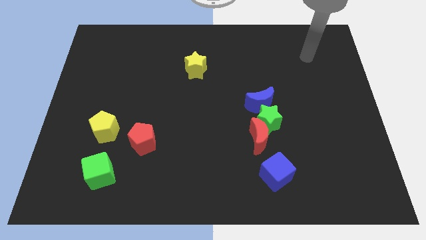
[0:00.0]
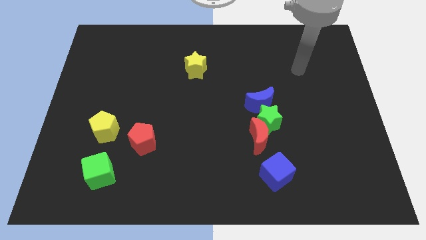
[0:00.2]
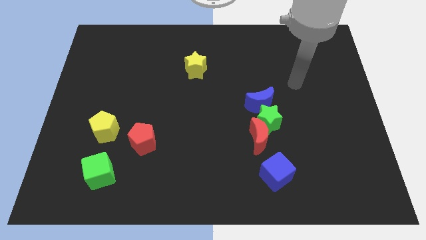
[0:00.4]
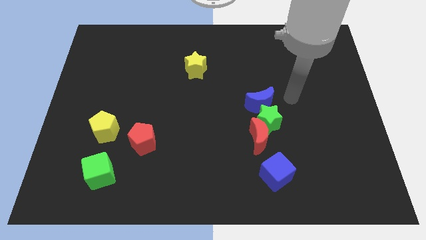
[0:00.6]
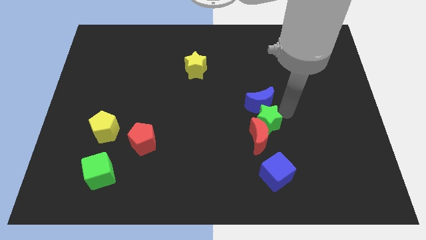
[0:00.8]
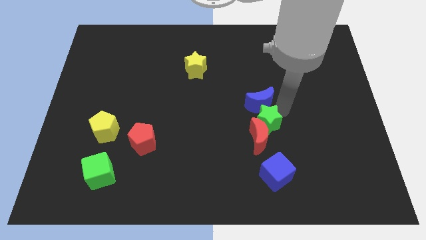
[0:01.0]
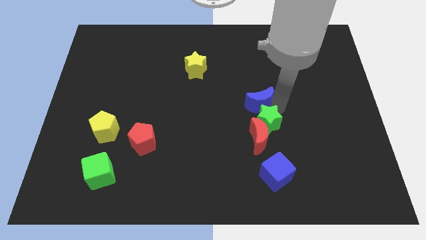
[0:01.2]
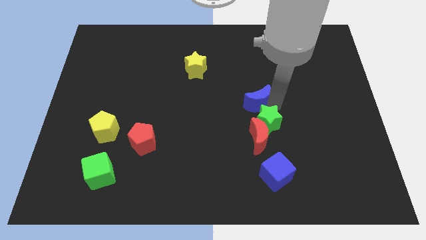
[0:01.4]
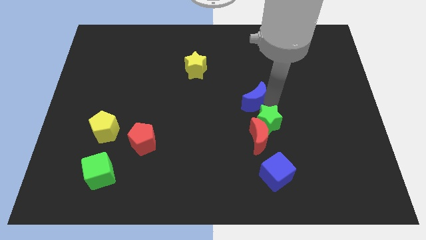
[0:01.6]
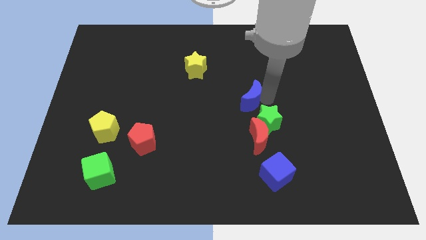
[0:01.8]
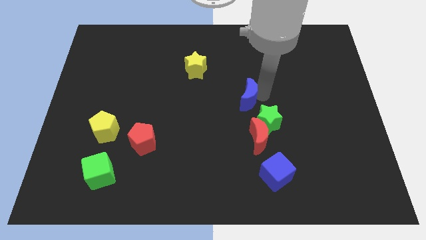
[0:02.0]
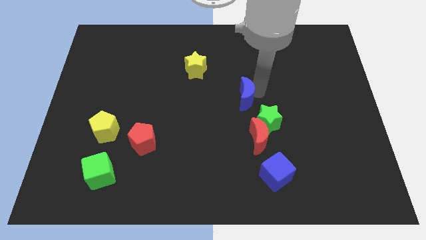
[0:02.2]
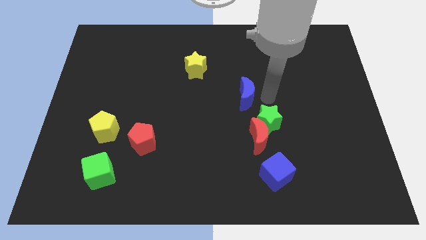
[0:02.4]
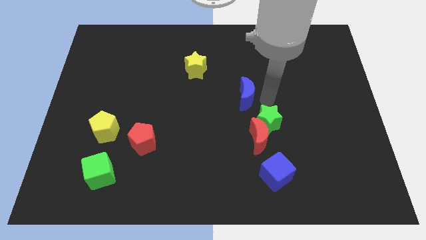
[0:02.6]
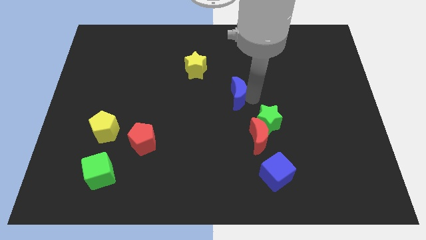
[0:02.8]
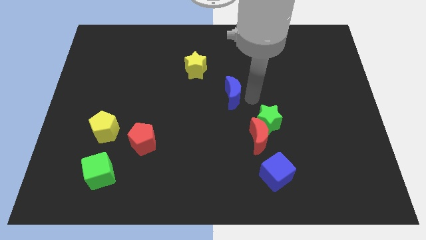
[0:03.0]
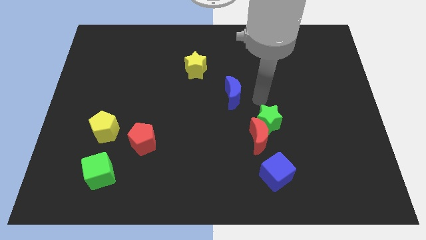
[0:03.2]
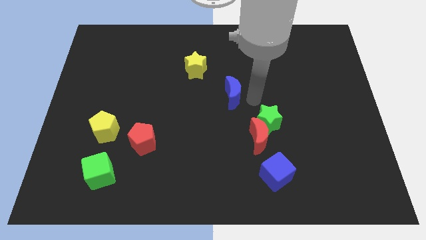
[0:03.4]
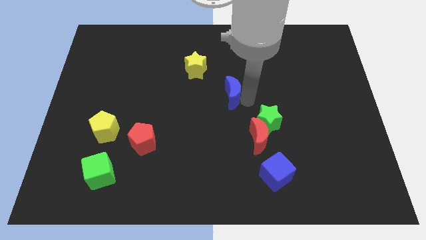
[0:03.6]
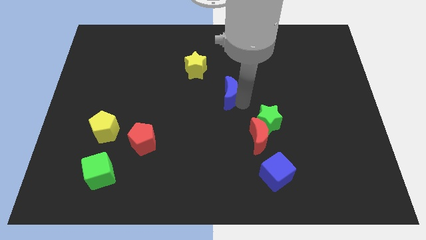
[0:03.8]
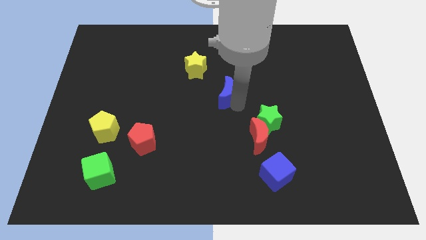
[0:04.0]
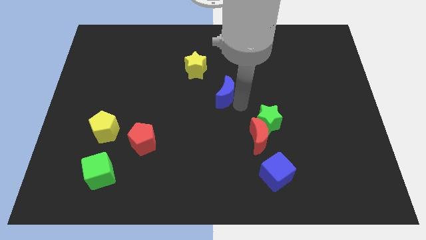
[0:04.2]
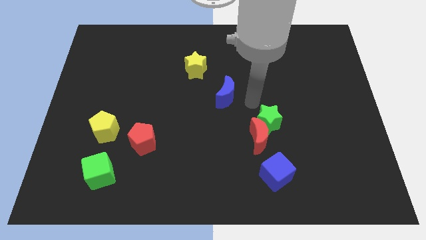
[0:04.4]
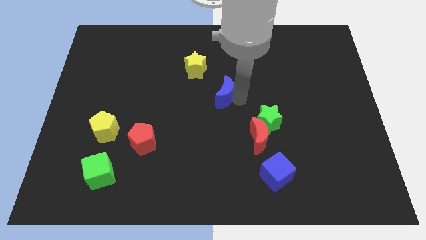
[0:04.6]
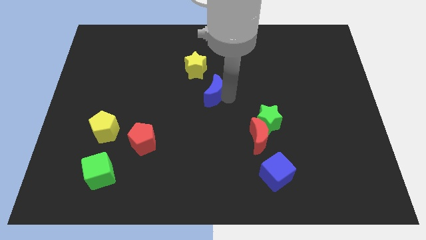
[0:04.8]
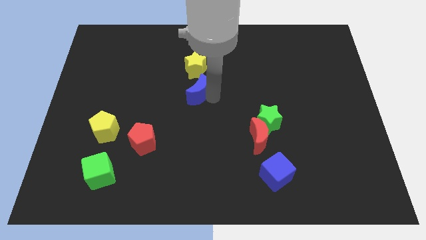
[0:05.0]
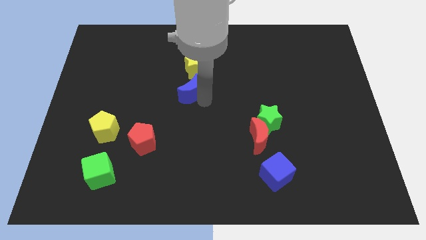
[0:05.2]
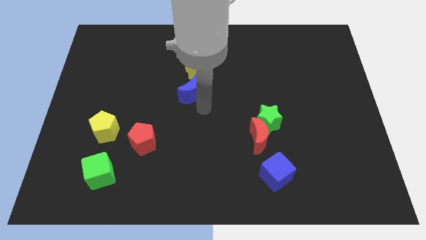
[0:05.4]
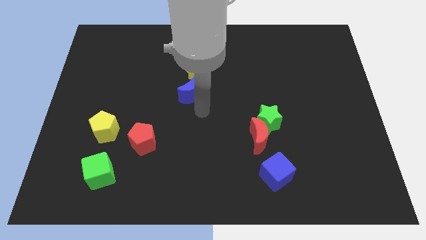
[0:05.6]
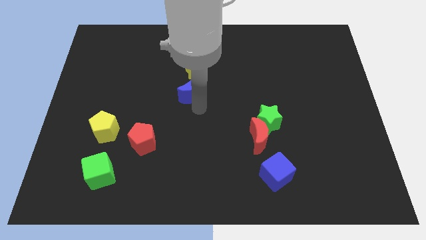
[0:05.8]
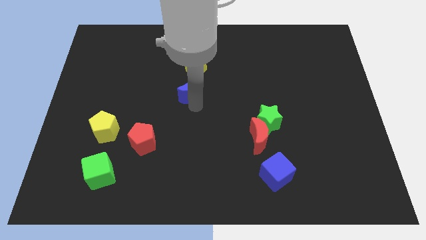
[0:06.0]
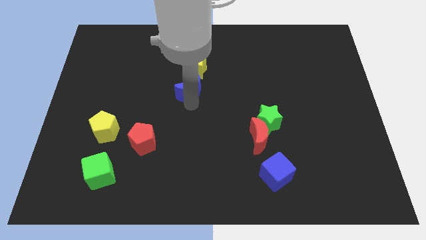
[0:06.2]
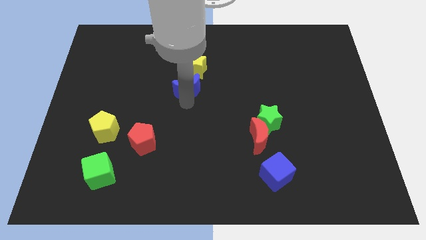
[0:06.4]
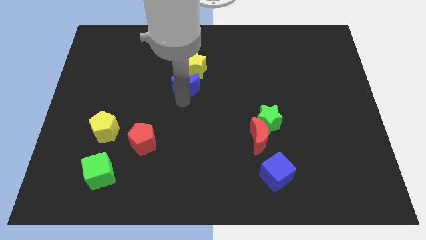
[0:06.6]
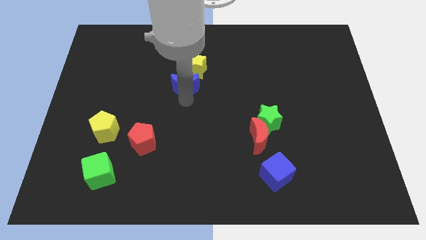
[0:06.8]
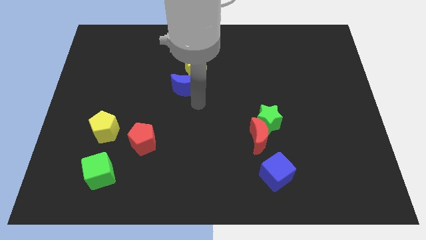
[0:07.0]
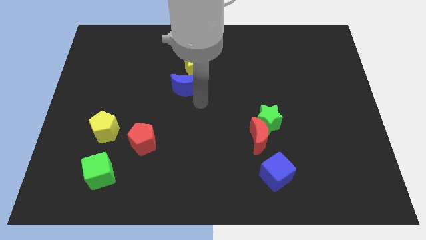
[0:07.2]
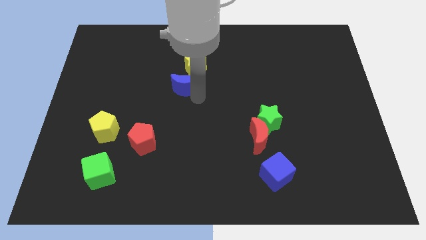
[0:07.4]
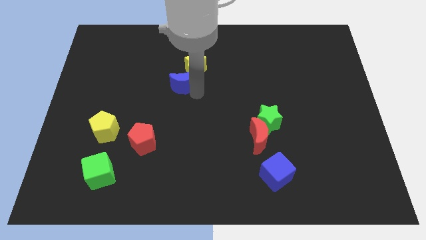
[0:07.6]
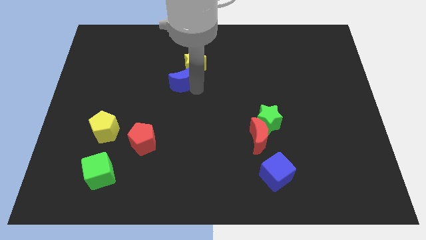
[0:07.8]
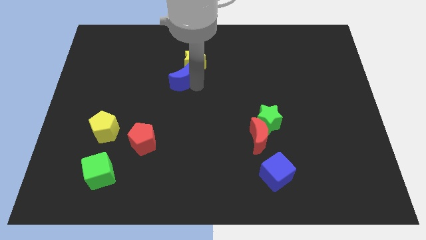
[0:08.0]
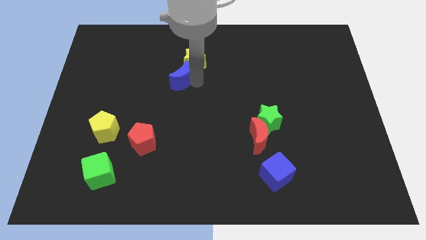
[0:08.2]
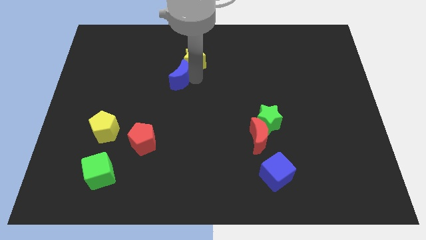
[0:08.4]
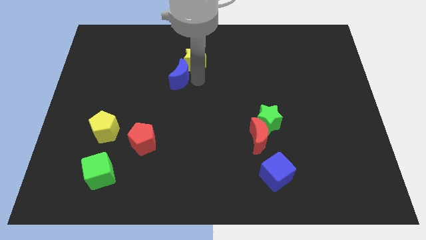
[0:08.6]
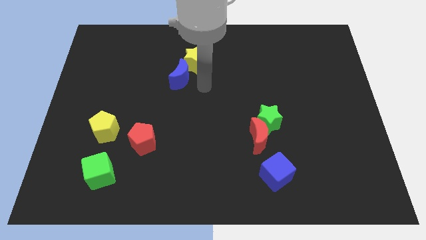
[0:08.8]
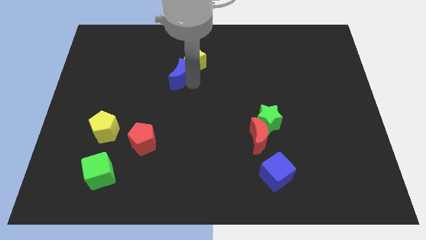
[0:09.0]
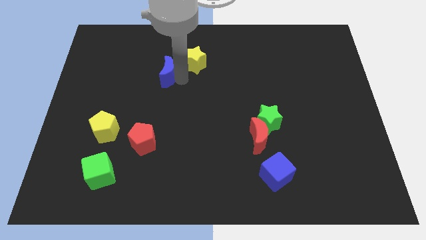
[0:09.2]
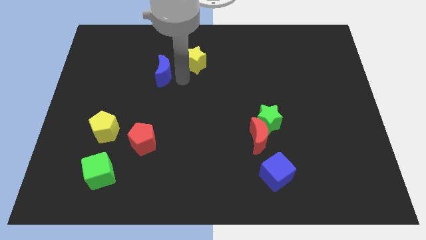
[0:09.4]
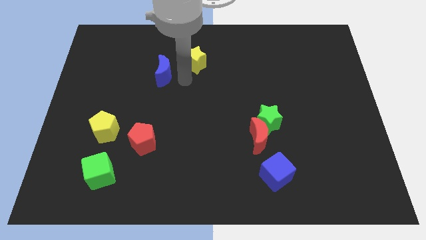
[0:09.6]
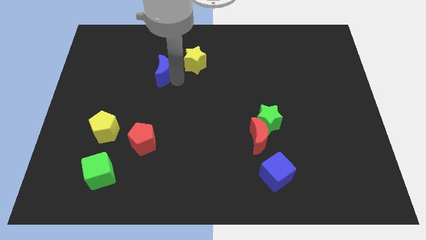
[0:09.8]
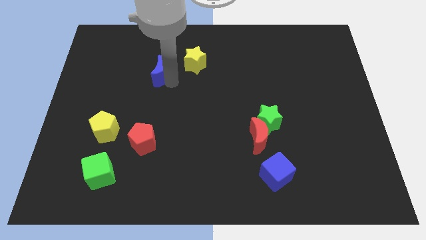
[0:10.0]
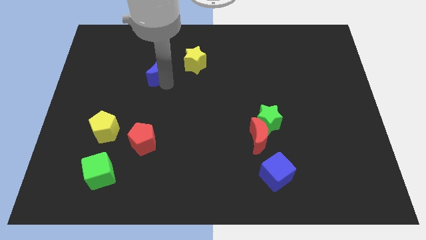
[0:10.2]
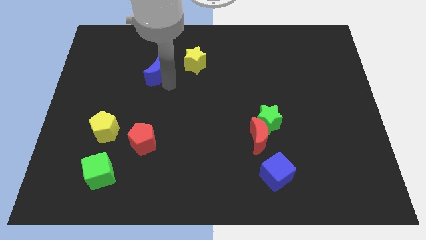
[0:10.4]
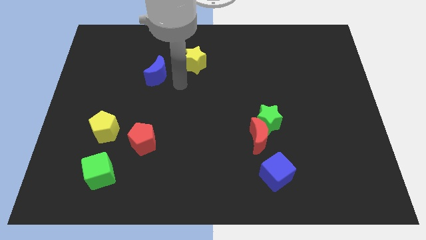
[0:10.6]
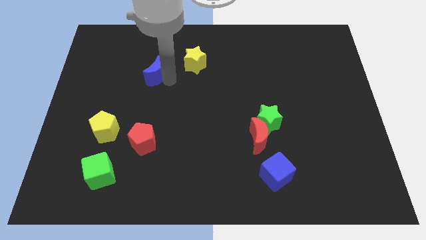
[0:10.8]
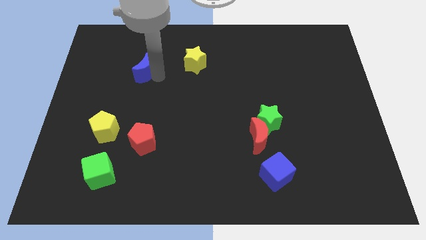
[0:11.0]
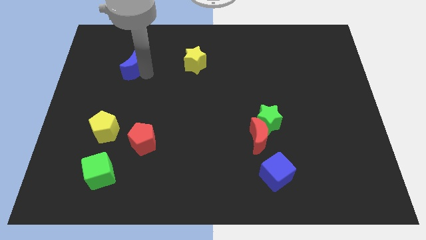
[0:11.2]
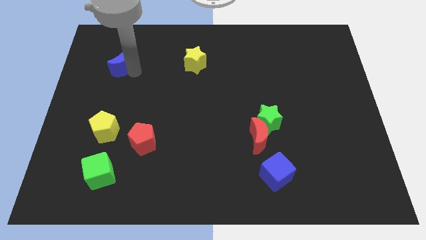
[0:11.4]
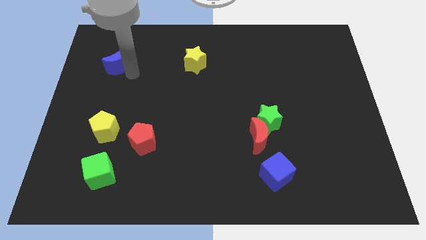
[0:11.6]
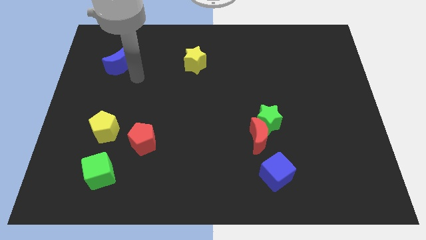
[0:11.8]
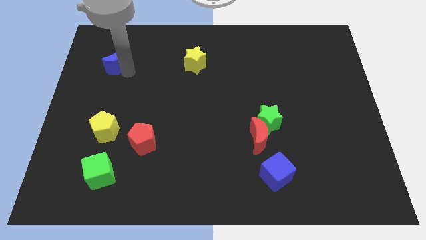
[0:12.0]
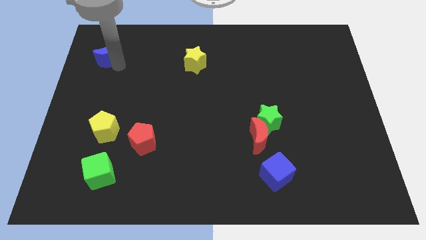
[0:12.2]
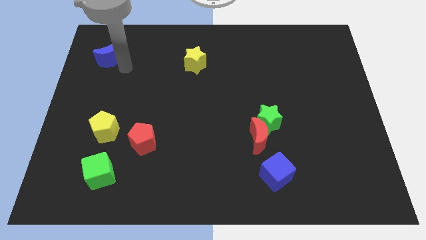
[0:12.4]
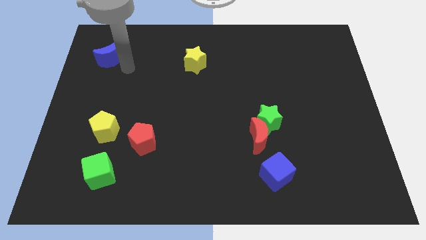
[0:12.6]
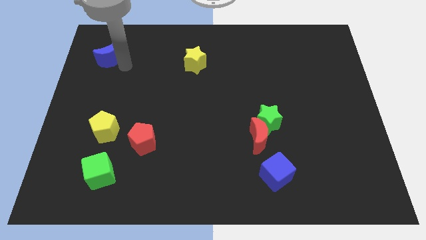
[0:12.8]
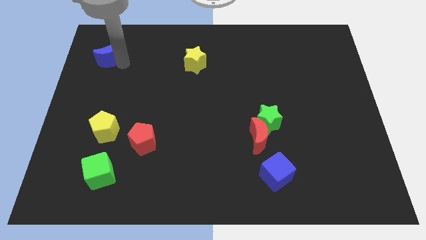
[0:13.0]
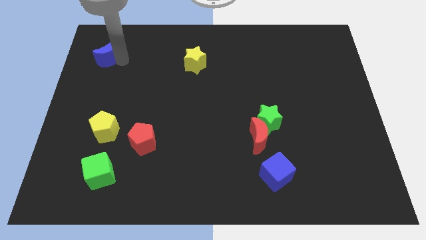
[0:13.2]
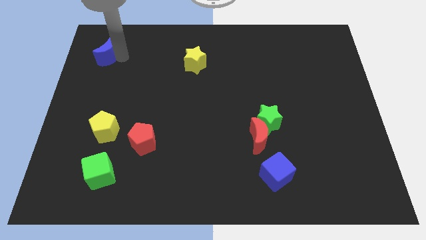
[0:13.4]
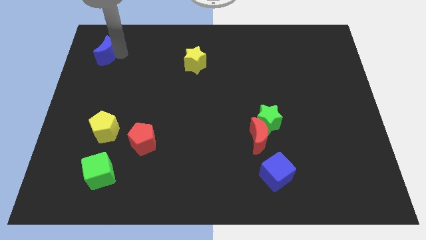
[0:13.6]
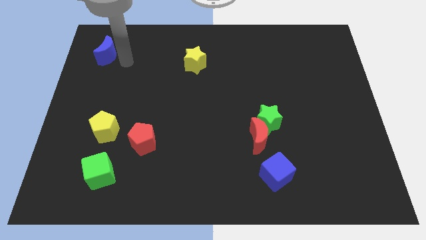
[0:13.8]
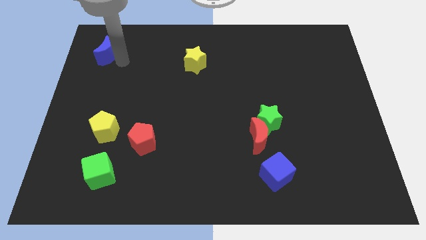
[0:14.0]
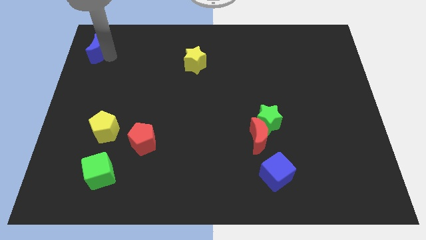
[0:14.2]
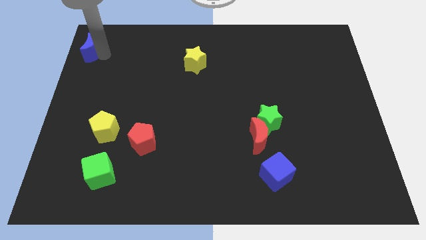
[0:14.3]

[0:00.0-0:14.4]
push the blue moon to the top left corner
